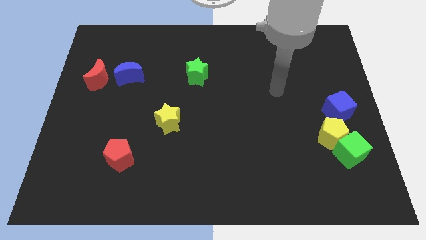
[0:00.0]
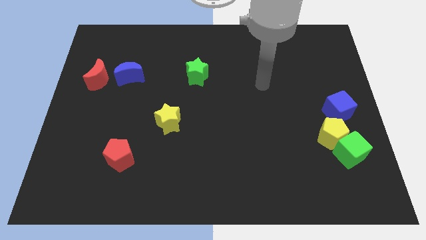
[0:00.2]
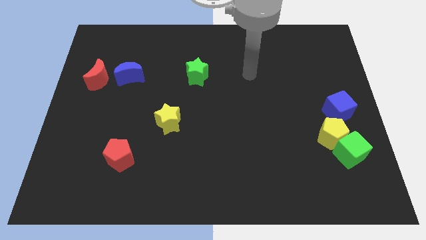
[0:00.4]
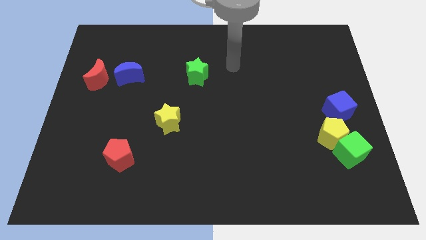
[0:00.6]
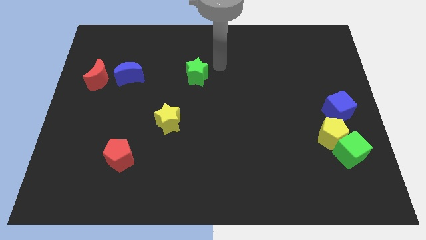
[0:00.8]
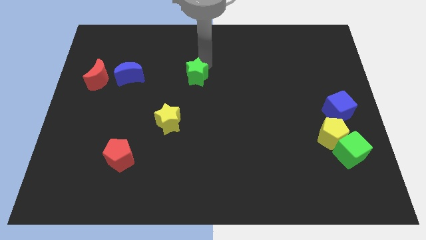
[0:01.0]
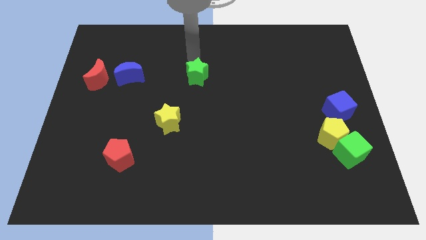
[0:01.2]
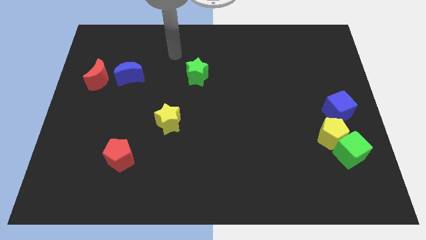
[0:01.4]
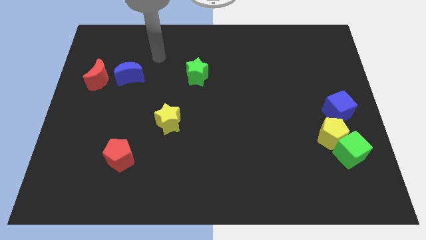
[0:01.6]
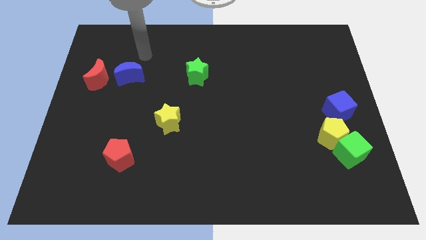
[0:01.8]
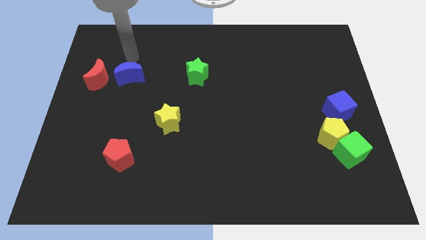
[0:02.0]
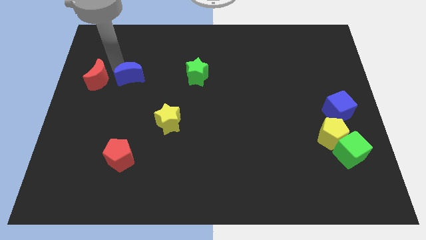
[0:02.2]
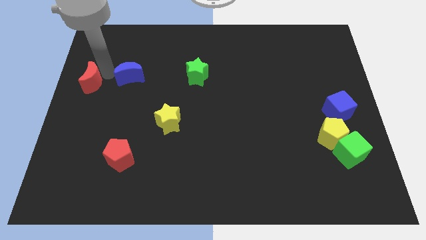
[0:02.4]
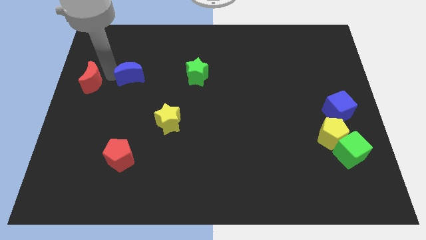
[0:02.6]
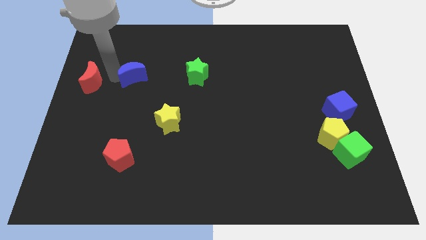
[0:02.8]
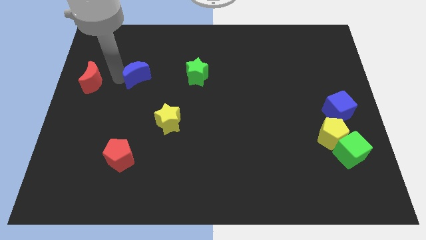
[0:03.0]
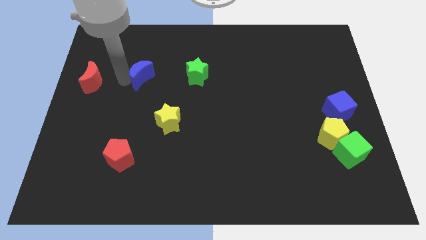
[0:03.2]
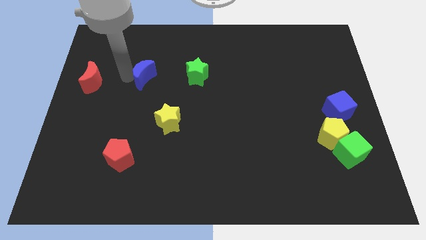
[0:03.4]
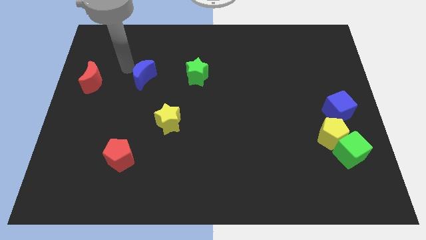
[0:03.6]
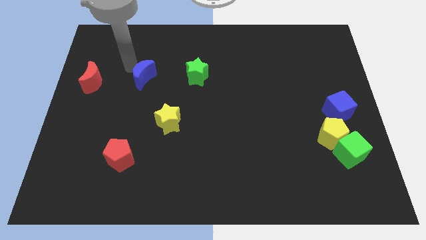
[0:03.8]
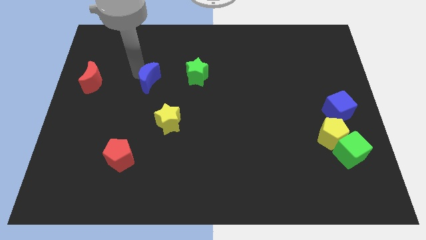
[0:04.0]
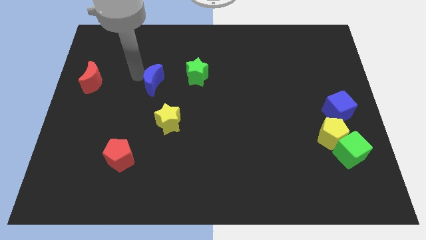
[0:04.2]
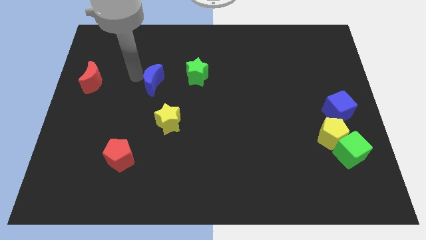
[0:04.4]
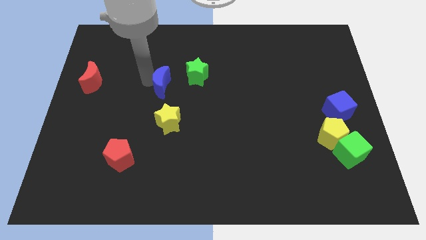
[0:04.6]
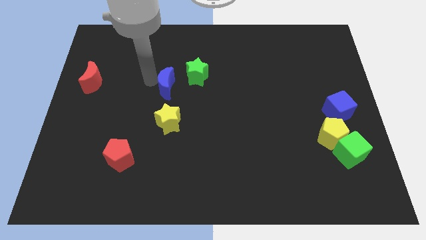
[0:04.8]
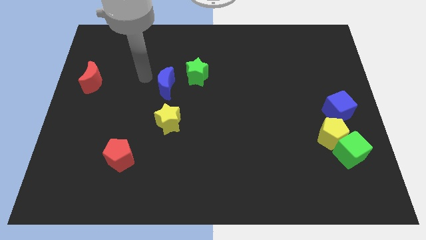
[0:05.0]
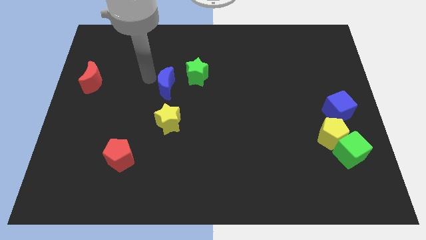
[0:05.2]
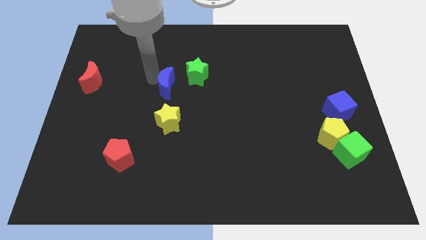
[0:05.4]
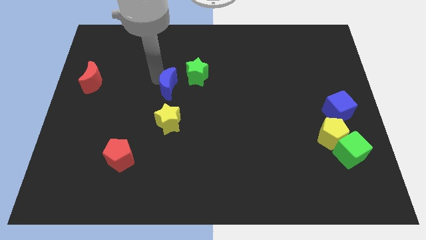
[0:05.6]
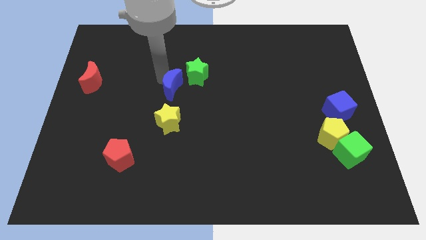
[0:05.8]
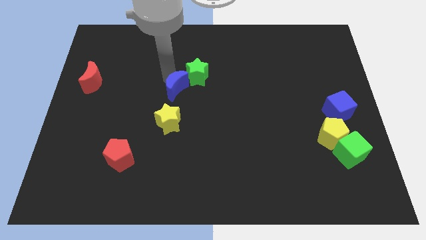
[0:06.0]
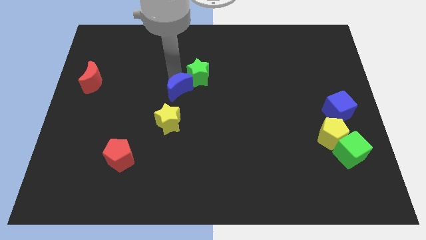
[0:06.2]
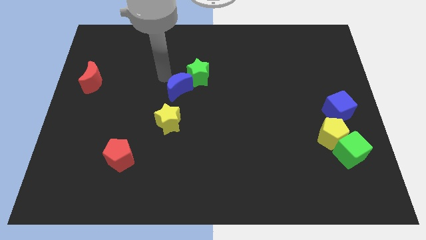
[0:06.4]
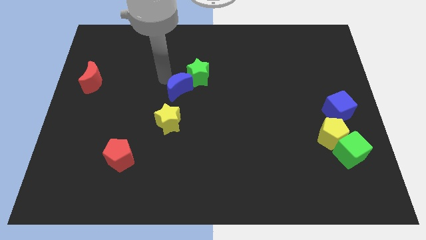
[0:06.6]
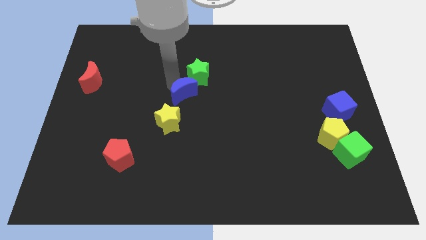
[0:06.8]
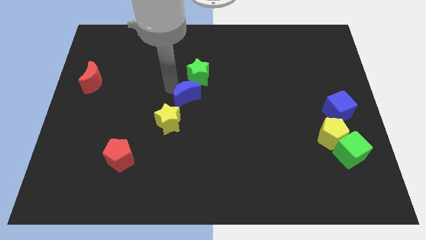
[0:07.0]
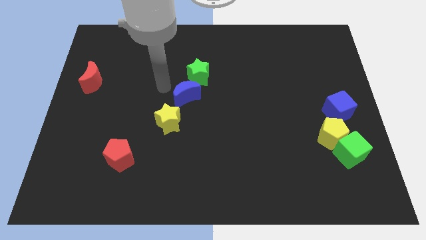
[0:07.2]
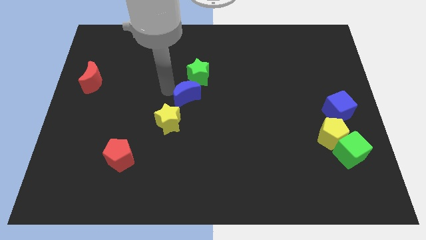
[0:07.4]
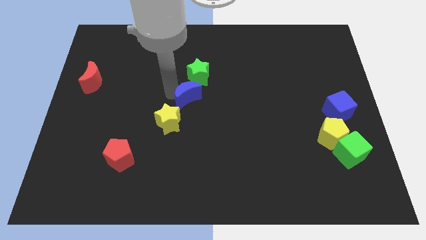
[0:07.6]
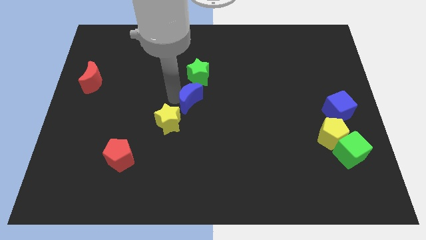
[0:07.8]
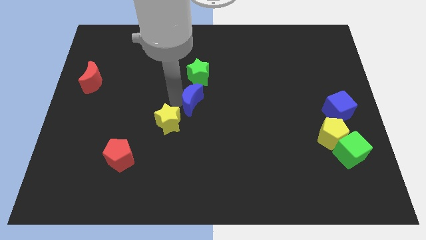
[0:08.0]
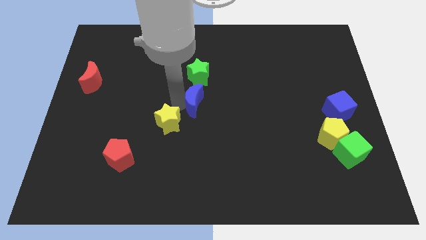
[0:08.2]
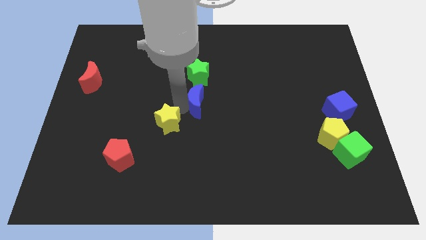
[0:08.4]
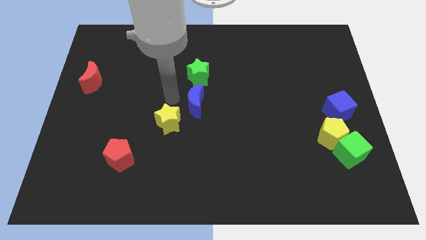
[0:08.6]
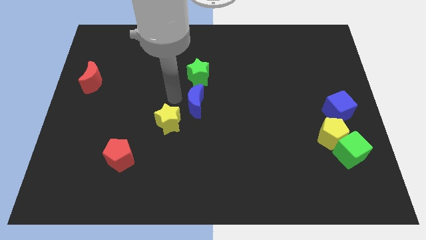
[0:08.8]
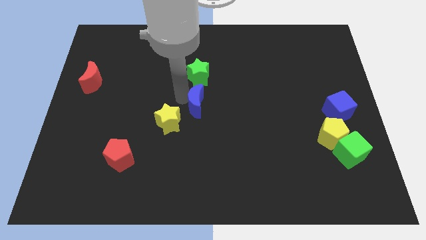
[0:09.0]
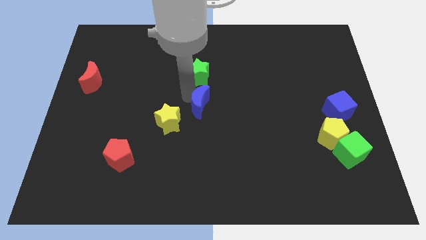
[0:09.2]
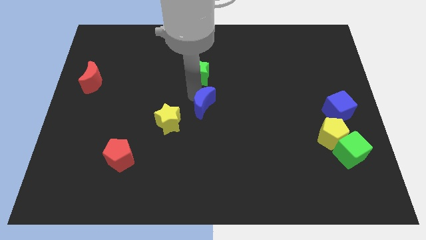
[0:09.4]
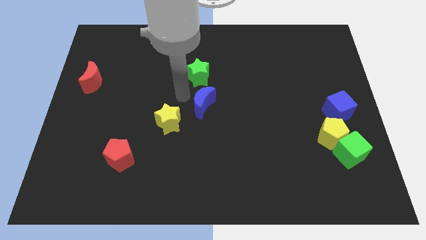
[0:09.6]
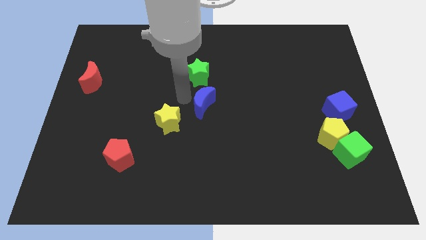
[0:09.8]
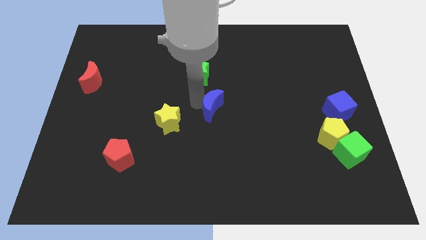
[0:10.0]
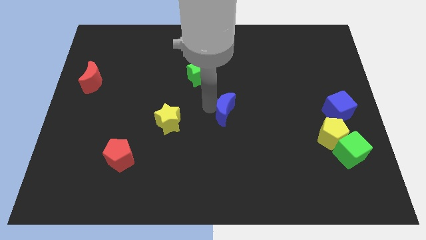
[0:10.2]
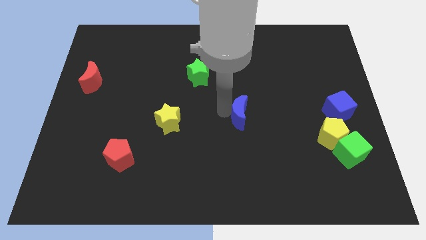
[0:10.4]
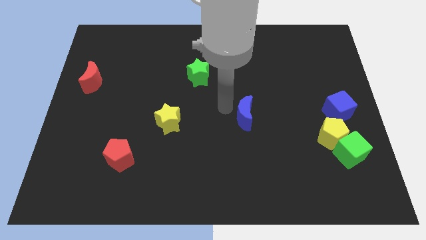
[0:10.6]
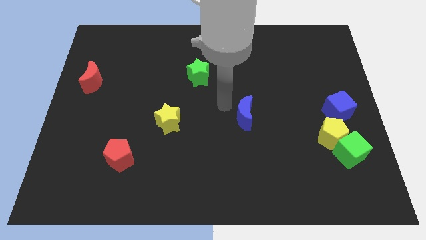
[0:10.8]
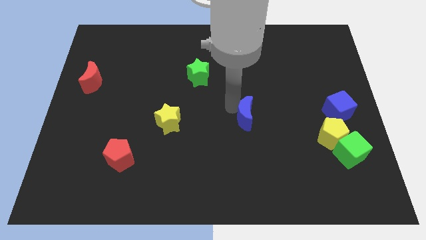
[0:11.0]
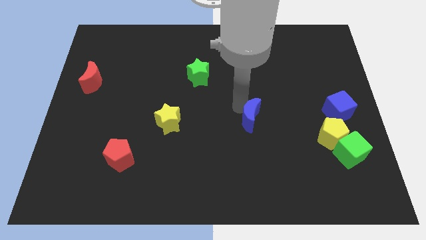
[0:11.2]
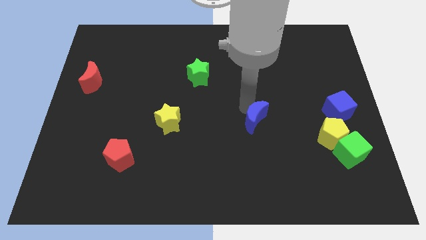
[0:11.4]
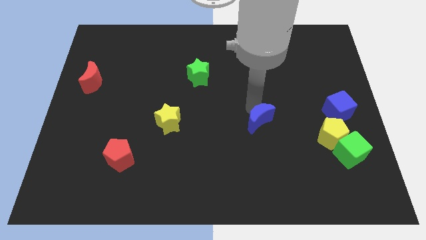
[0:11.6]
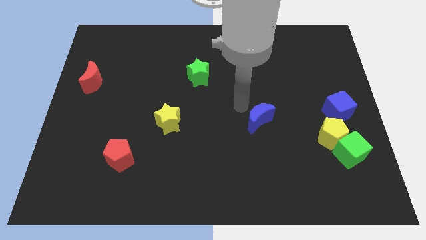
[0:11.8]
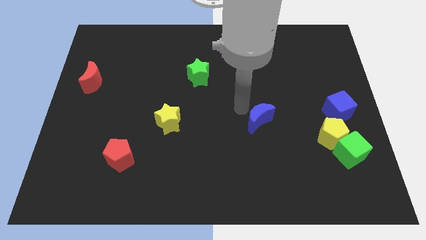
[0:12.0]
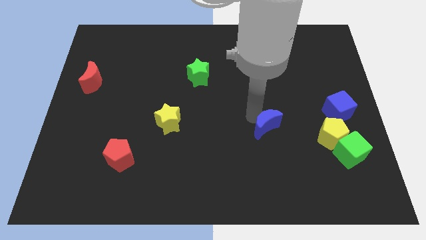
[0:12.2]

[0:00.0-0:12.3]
move the blue moon to the left of the yellow pentagon

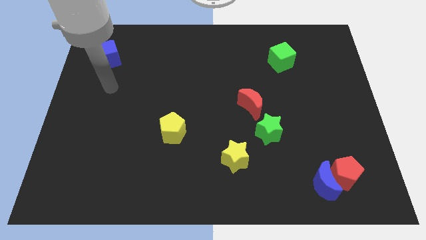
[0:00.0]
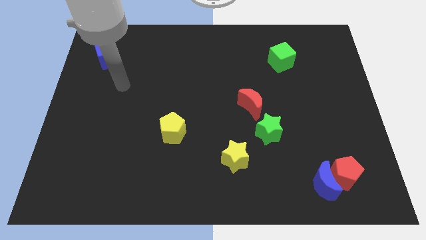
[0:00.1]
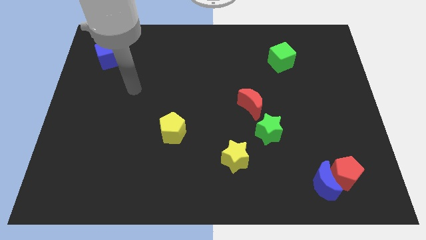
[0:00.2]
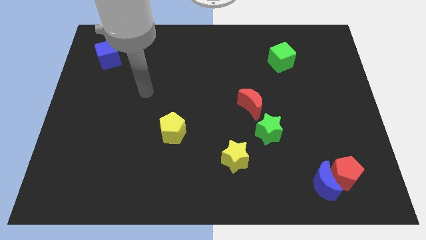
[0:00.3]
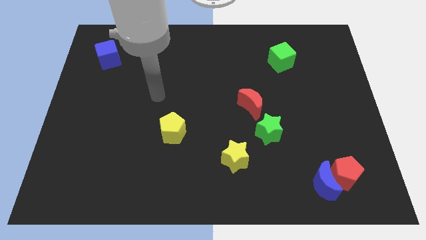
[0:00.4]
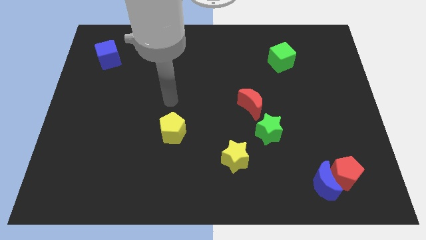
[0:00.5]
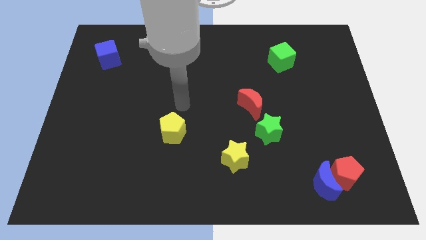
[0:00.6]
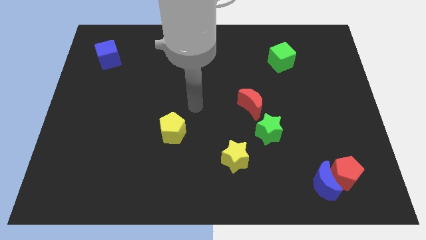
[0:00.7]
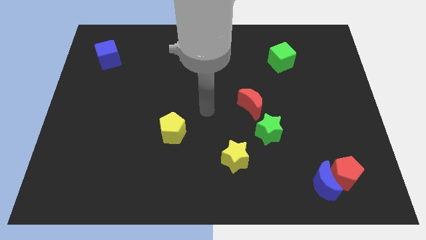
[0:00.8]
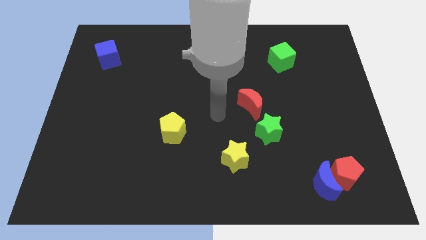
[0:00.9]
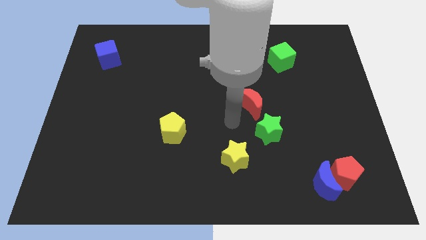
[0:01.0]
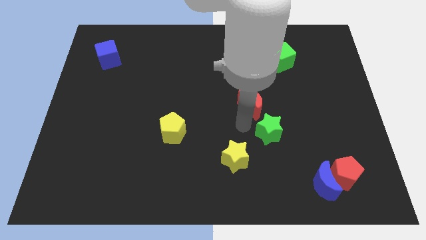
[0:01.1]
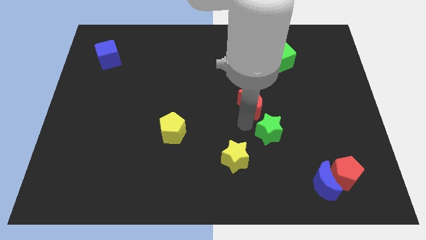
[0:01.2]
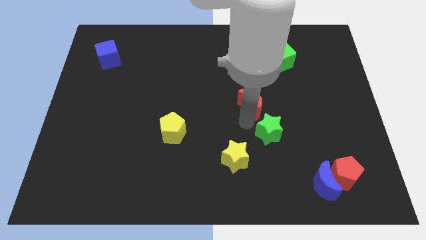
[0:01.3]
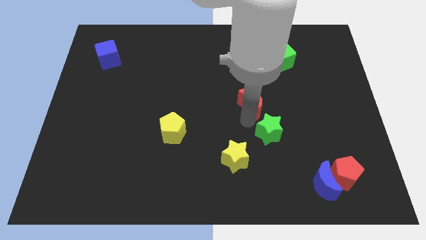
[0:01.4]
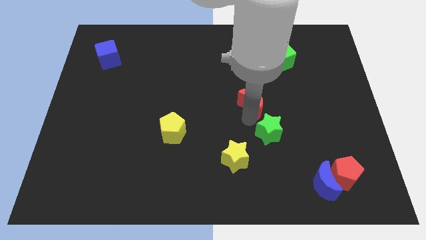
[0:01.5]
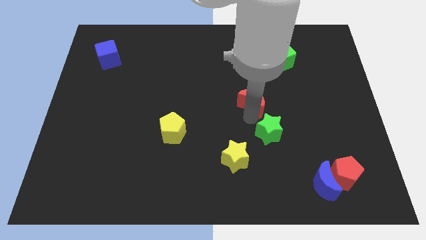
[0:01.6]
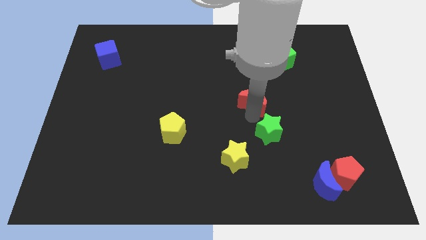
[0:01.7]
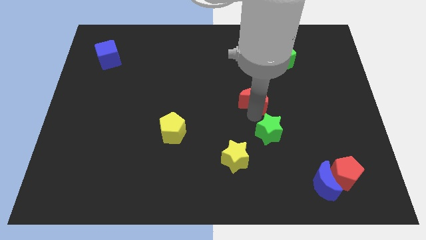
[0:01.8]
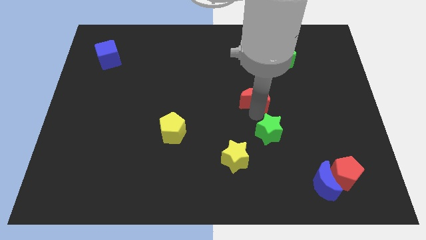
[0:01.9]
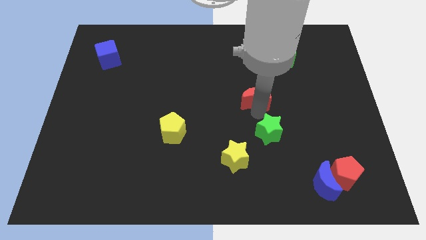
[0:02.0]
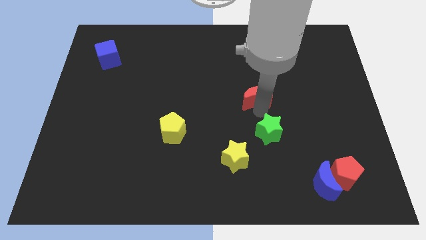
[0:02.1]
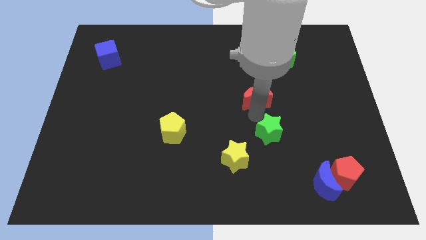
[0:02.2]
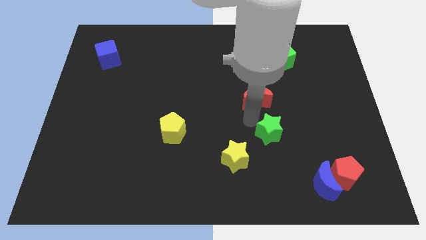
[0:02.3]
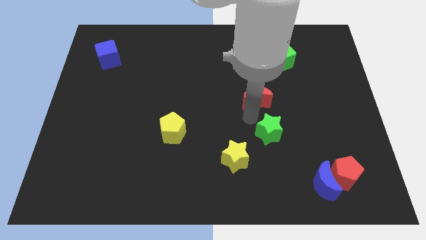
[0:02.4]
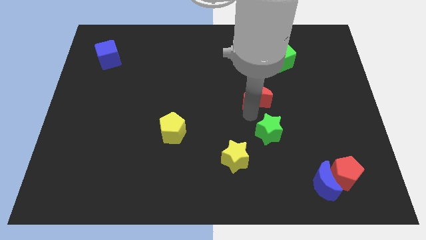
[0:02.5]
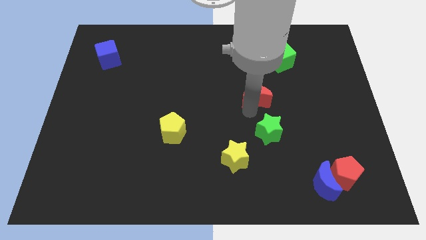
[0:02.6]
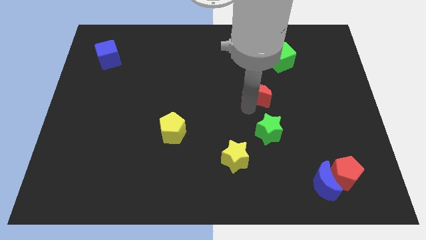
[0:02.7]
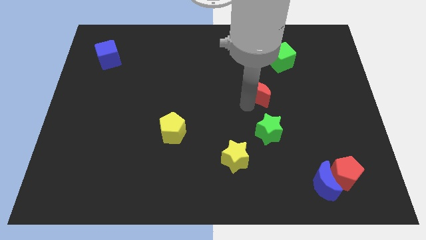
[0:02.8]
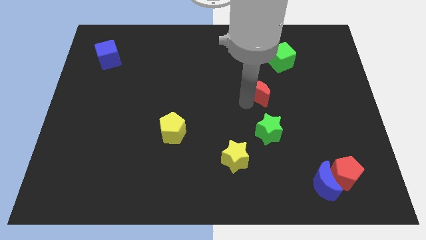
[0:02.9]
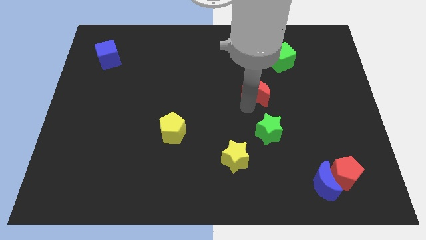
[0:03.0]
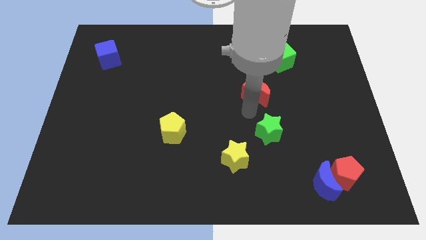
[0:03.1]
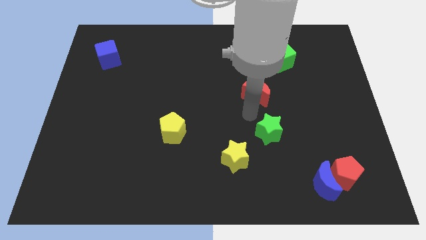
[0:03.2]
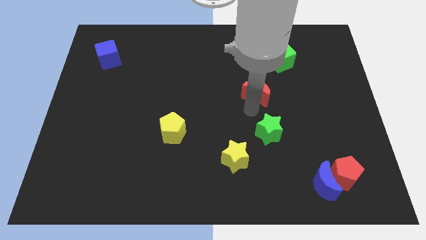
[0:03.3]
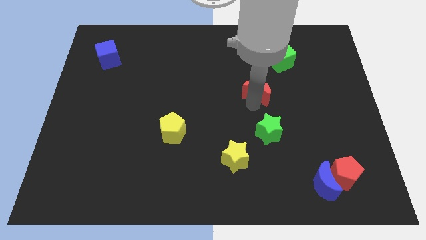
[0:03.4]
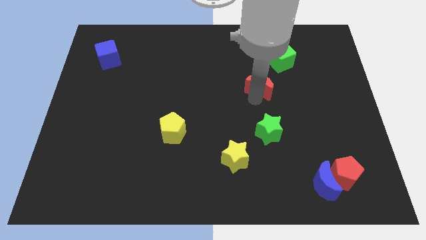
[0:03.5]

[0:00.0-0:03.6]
push the red moon diagonally down and to the left of the green cube
